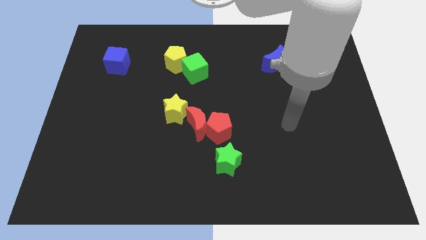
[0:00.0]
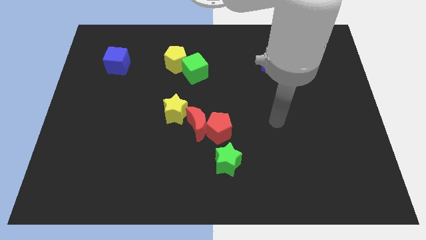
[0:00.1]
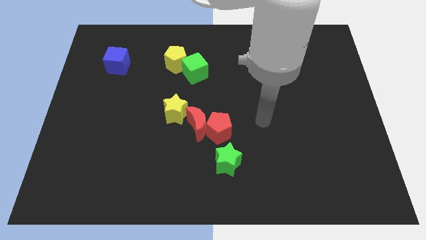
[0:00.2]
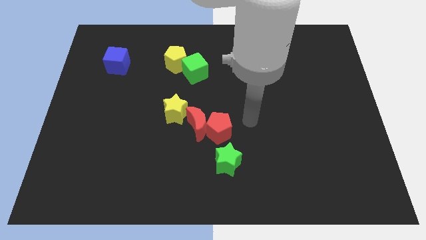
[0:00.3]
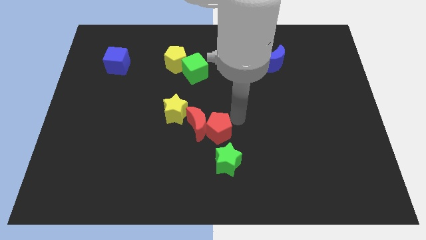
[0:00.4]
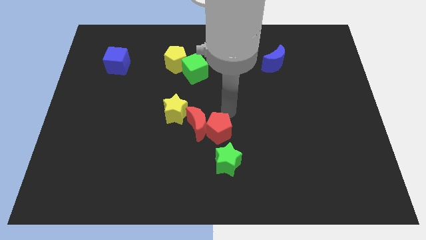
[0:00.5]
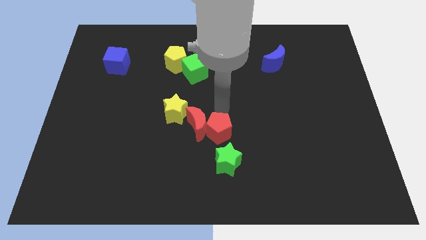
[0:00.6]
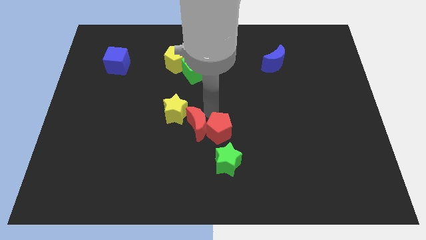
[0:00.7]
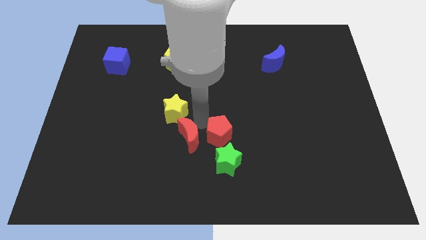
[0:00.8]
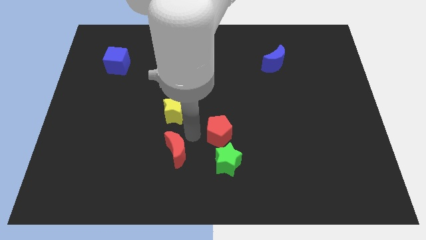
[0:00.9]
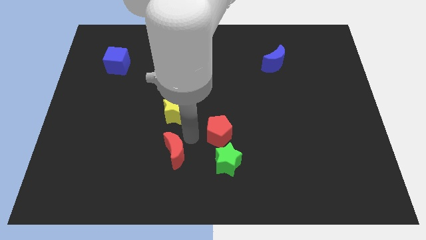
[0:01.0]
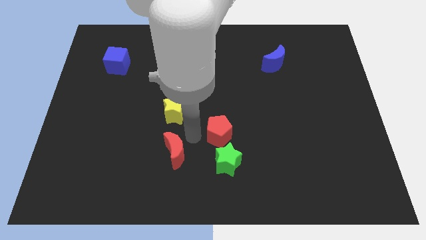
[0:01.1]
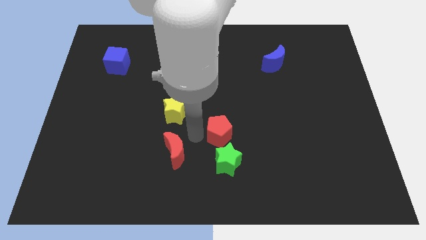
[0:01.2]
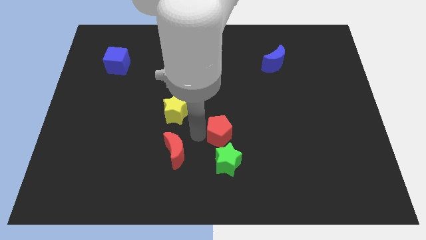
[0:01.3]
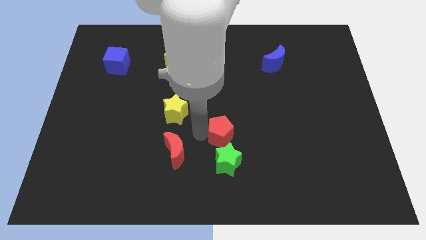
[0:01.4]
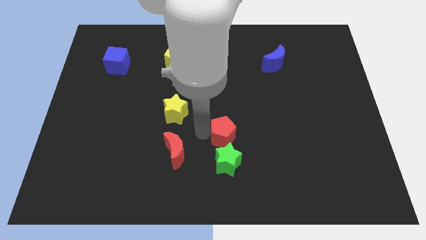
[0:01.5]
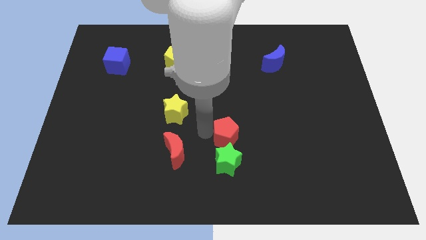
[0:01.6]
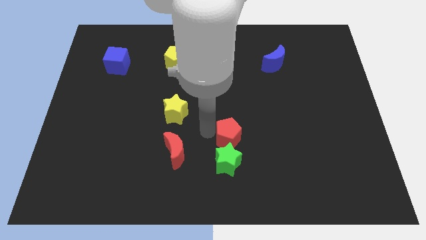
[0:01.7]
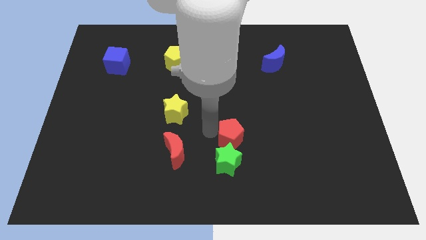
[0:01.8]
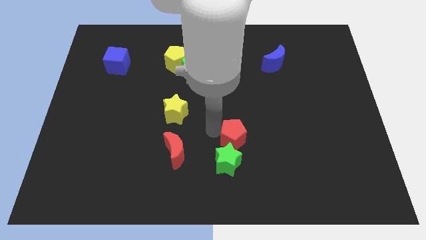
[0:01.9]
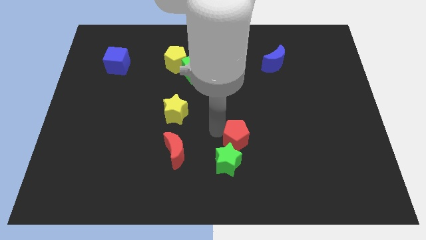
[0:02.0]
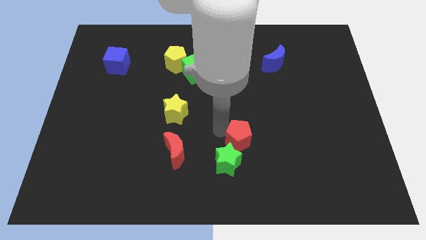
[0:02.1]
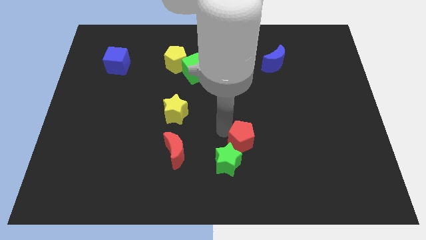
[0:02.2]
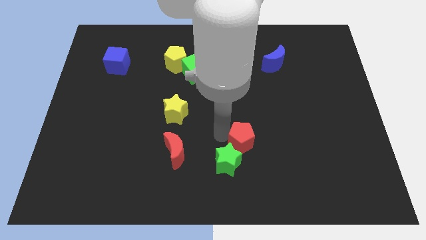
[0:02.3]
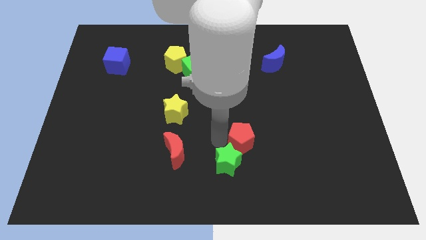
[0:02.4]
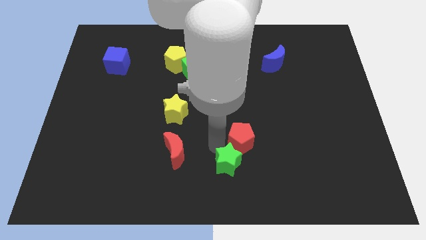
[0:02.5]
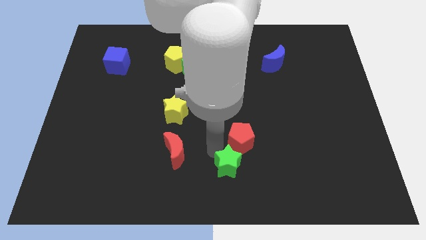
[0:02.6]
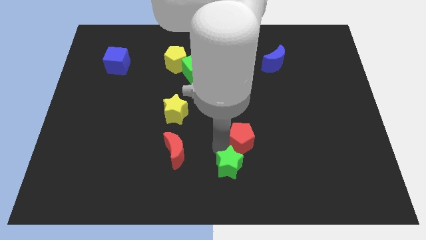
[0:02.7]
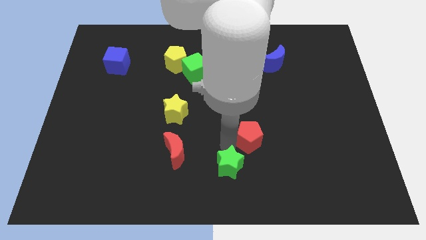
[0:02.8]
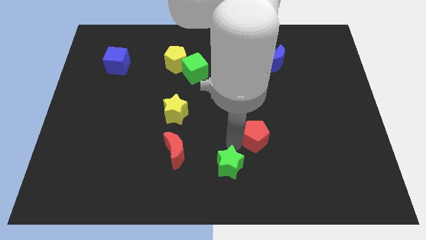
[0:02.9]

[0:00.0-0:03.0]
slightly move the red pentagon right

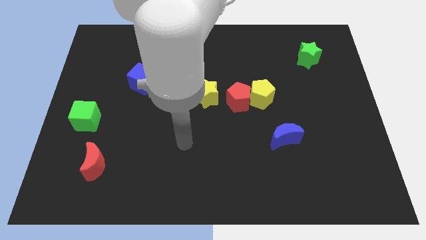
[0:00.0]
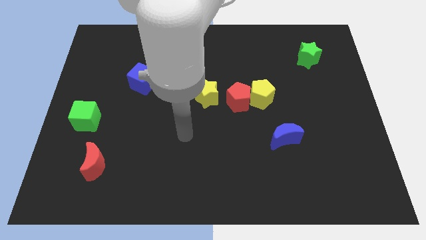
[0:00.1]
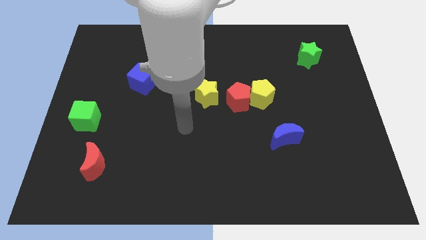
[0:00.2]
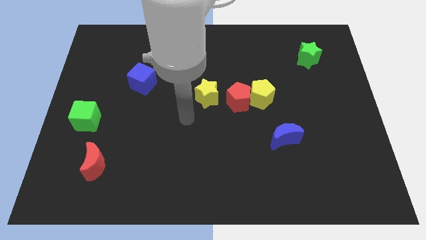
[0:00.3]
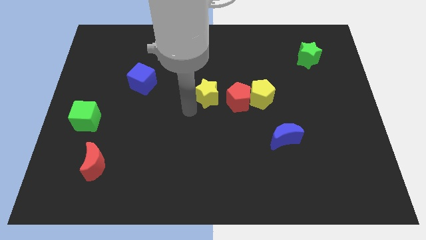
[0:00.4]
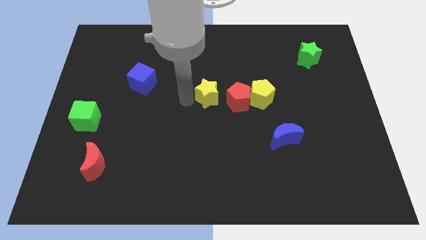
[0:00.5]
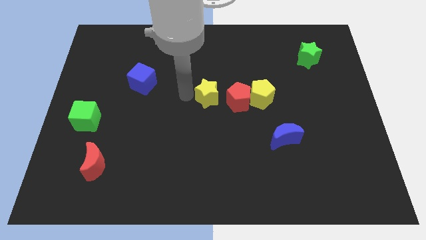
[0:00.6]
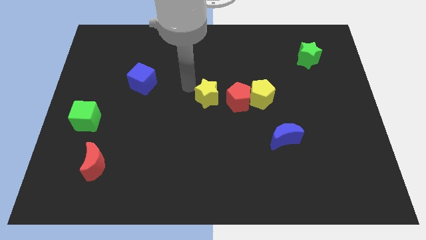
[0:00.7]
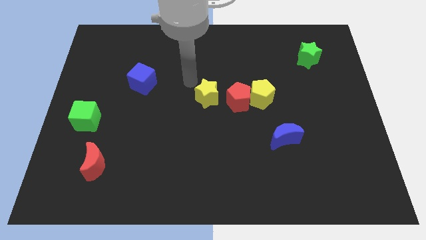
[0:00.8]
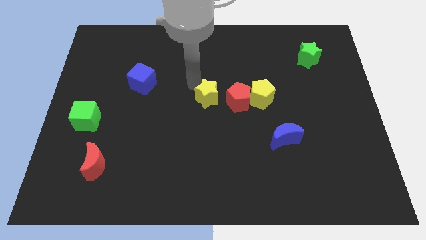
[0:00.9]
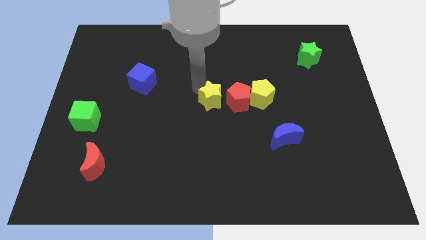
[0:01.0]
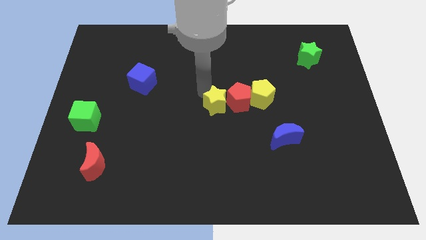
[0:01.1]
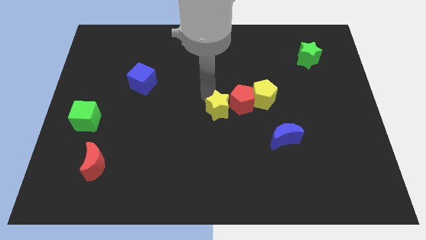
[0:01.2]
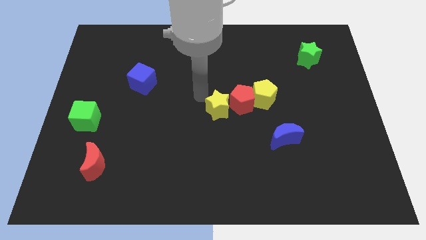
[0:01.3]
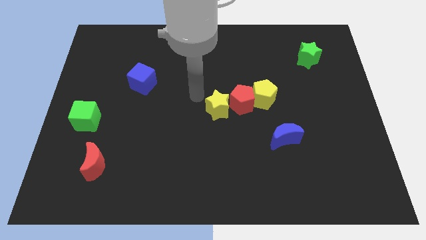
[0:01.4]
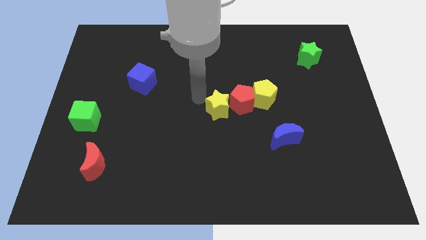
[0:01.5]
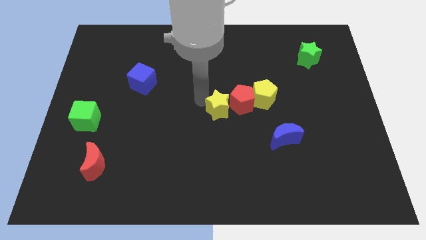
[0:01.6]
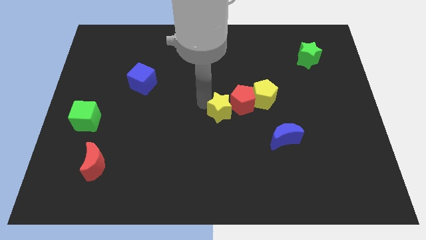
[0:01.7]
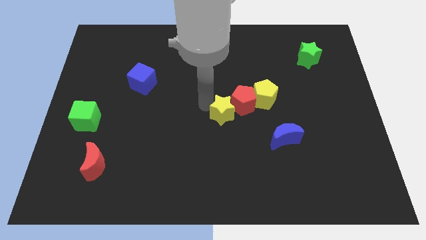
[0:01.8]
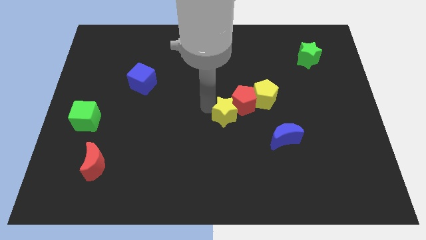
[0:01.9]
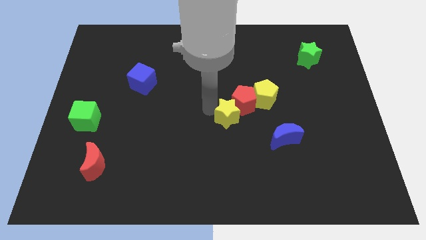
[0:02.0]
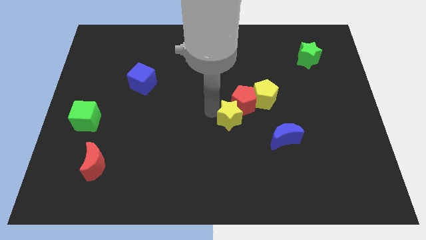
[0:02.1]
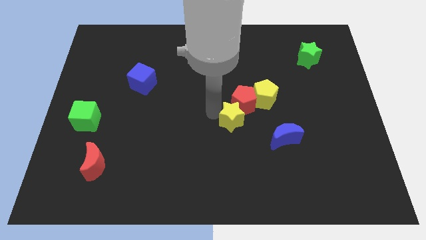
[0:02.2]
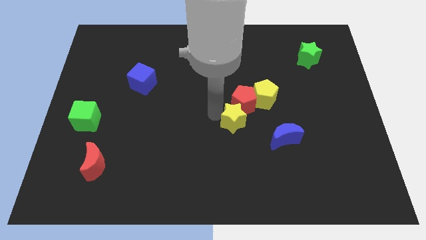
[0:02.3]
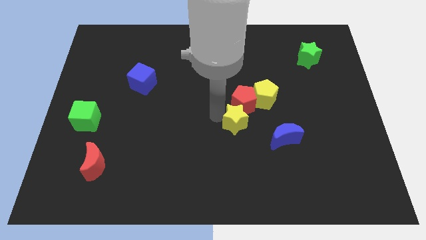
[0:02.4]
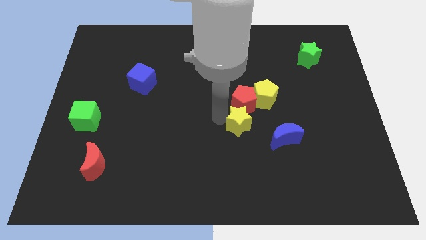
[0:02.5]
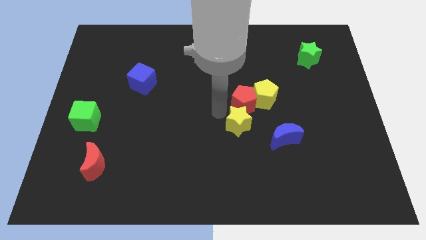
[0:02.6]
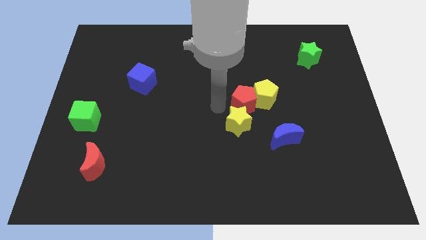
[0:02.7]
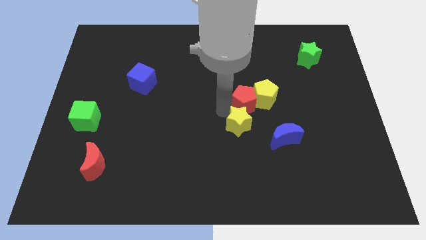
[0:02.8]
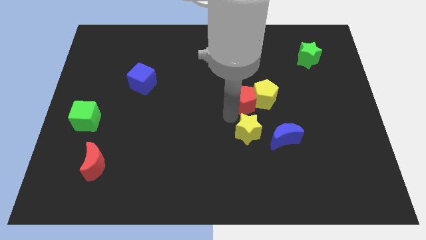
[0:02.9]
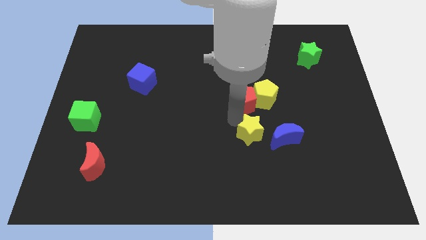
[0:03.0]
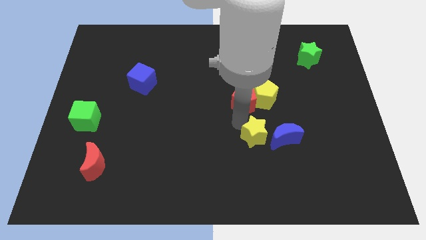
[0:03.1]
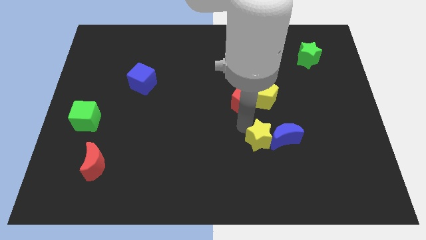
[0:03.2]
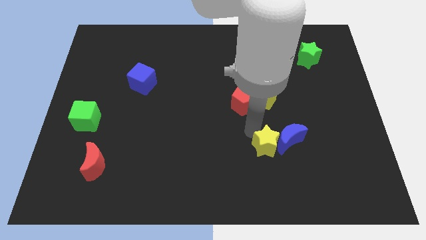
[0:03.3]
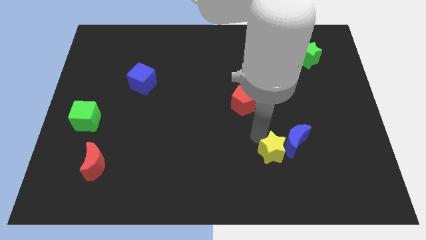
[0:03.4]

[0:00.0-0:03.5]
slide the yellow star downwards and right diagonally

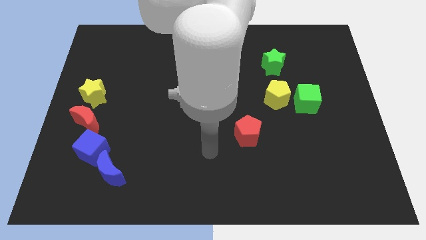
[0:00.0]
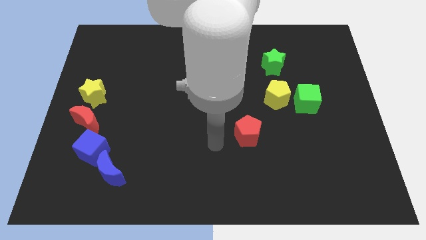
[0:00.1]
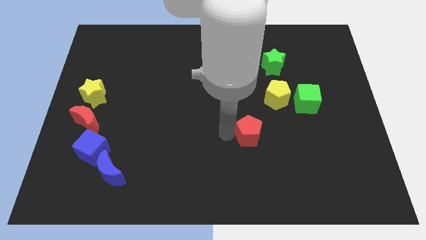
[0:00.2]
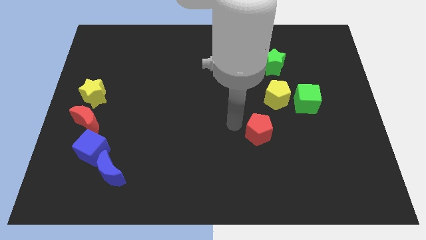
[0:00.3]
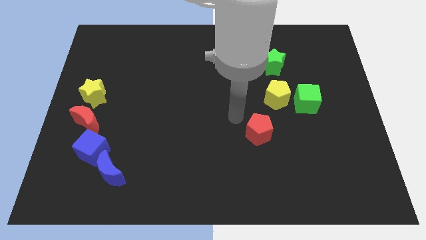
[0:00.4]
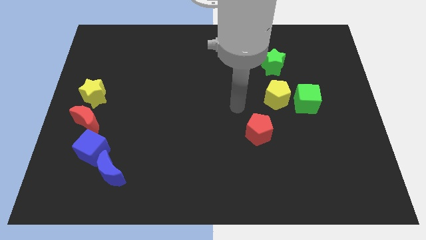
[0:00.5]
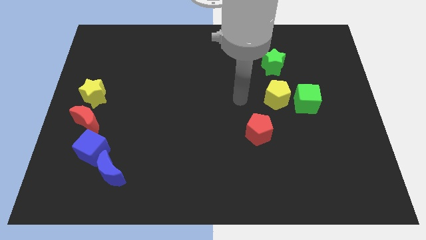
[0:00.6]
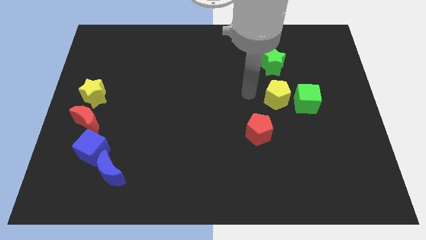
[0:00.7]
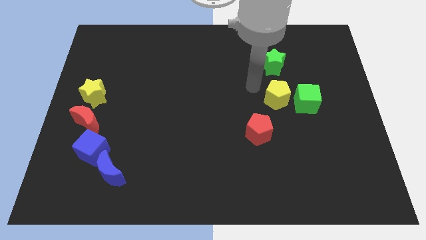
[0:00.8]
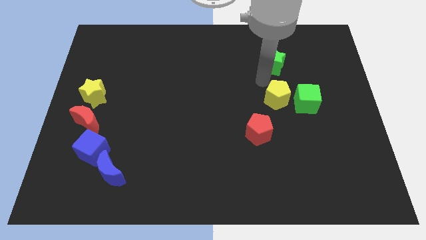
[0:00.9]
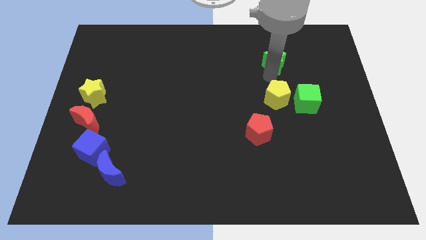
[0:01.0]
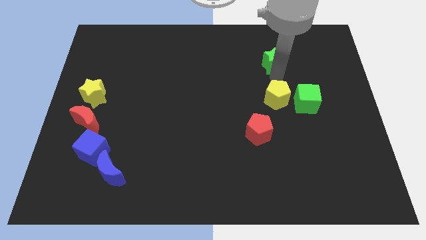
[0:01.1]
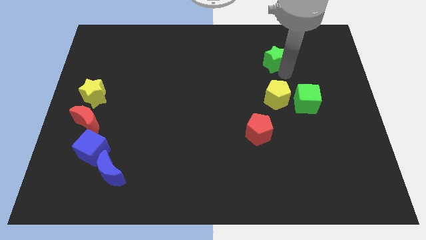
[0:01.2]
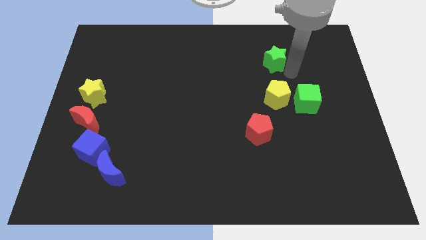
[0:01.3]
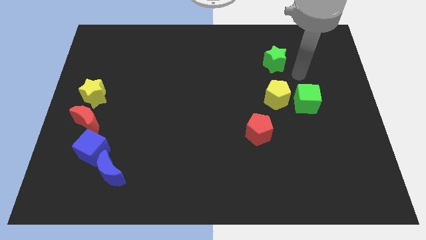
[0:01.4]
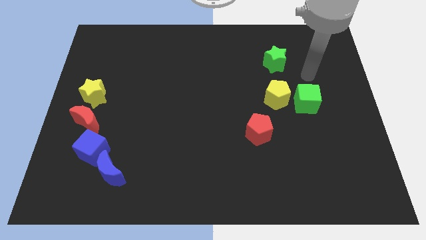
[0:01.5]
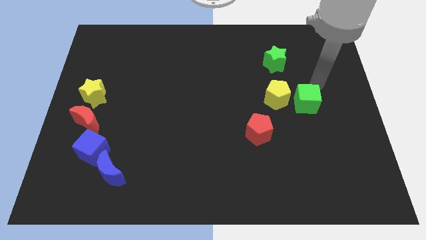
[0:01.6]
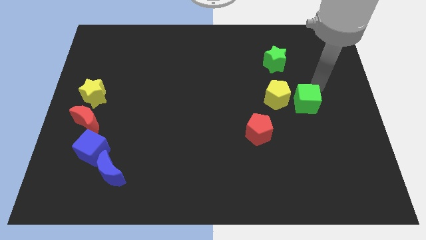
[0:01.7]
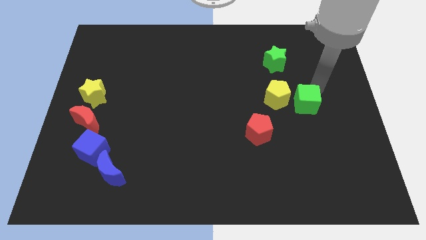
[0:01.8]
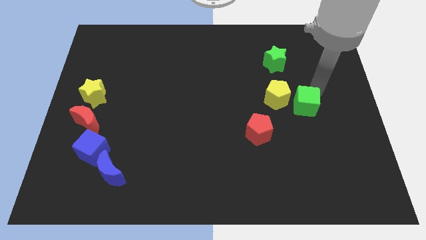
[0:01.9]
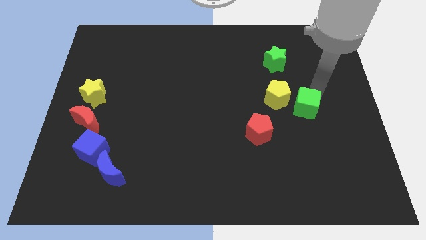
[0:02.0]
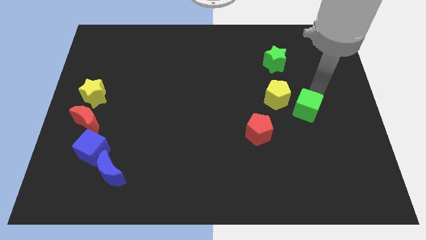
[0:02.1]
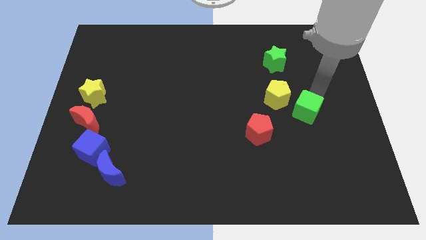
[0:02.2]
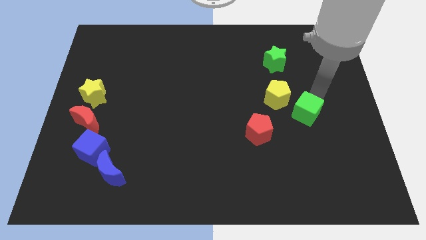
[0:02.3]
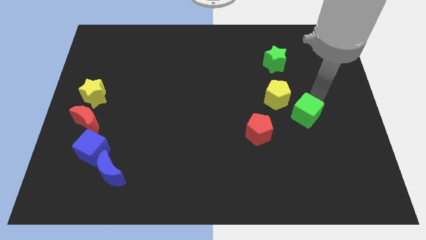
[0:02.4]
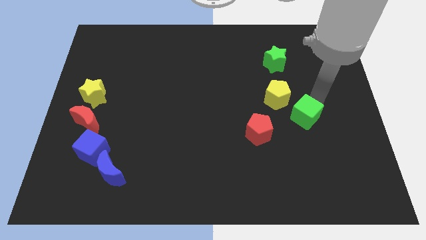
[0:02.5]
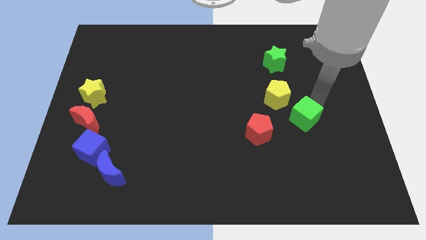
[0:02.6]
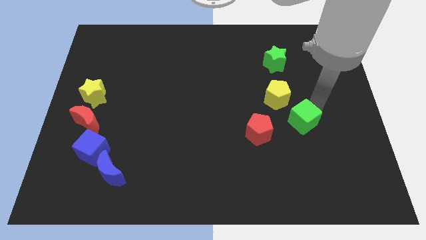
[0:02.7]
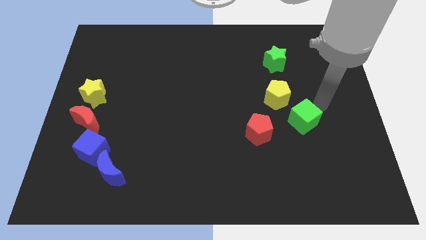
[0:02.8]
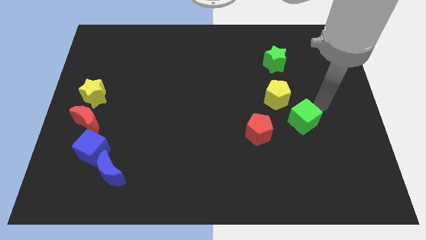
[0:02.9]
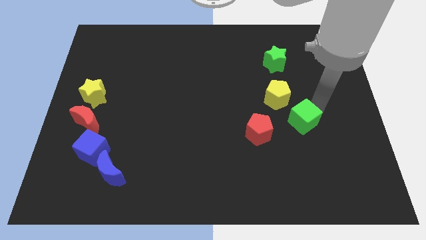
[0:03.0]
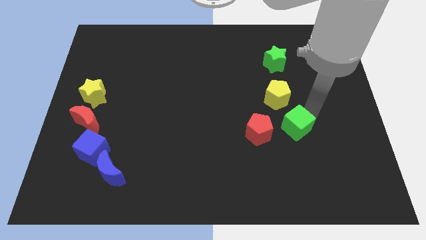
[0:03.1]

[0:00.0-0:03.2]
move the green cube slightly down and then left
